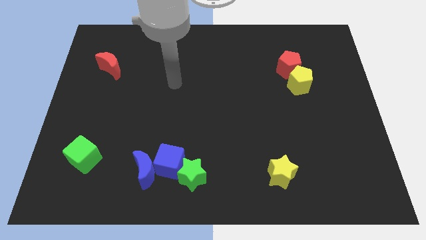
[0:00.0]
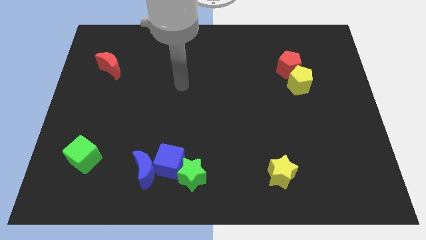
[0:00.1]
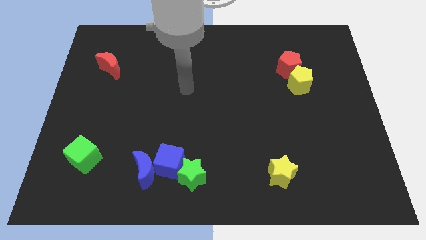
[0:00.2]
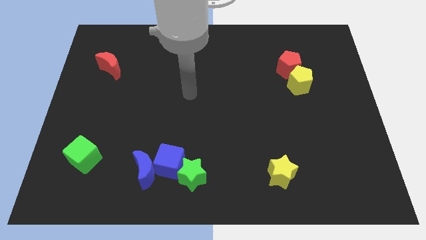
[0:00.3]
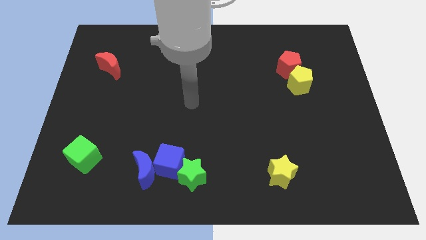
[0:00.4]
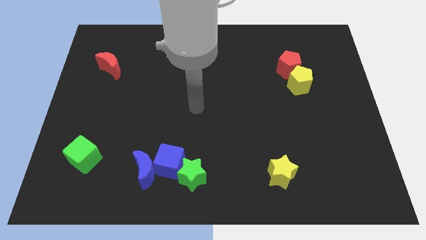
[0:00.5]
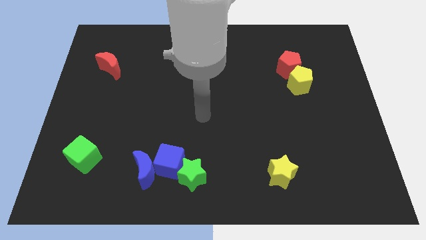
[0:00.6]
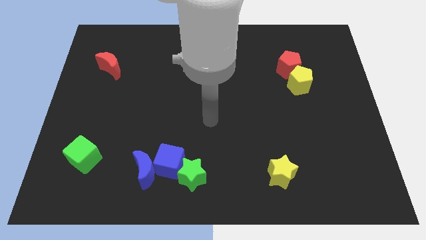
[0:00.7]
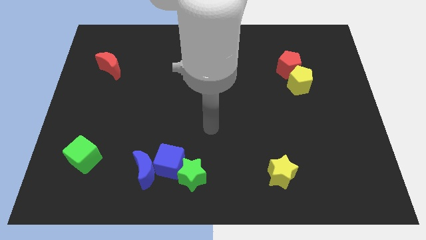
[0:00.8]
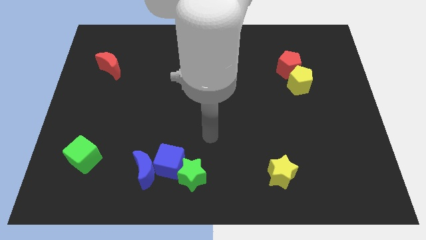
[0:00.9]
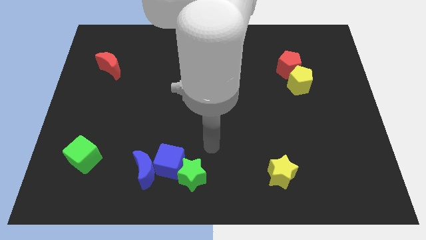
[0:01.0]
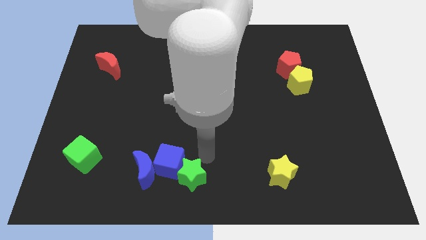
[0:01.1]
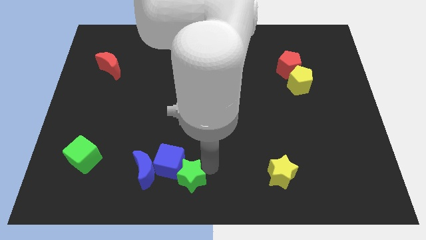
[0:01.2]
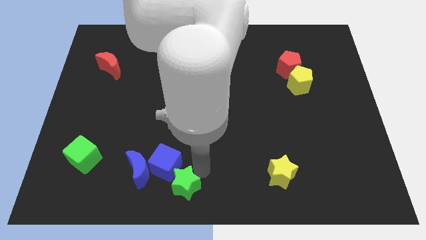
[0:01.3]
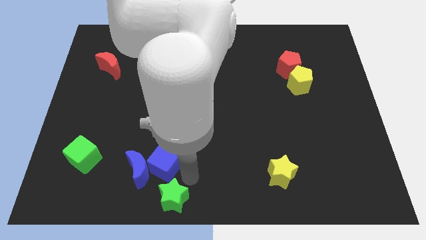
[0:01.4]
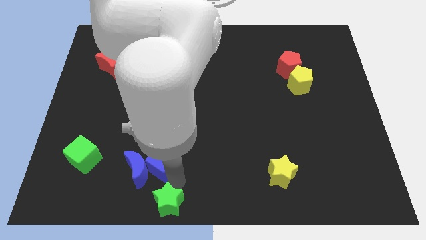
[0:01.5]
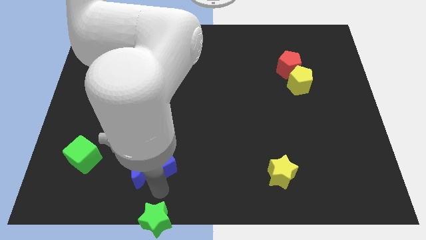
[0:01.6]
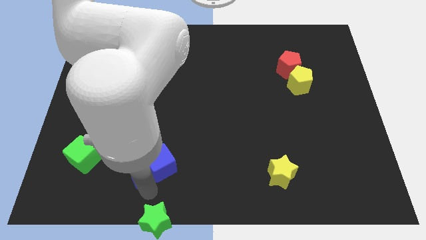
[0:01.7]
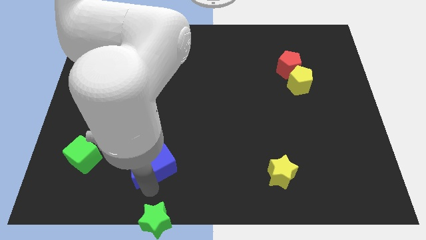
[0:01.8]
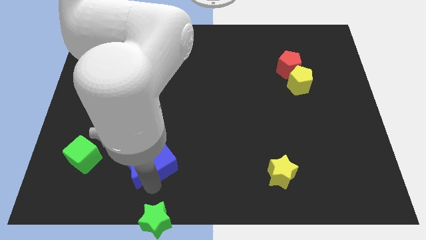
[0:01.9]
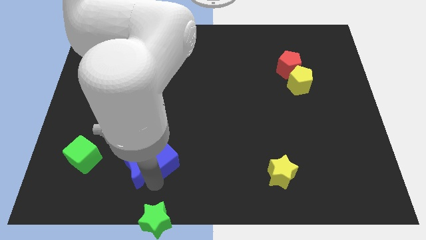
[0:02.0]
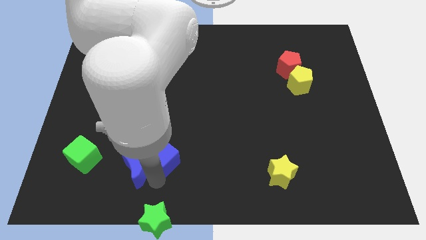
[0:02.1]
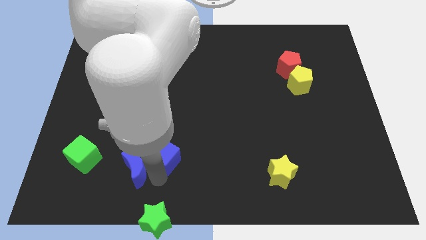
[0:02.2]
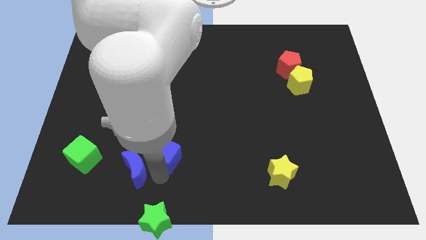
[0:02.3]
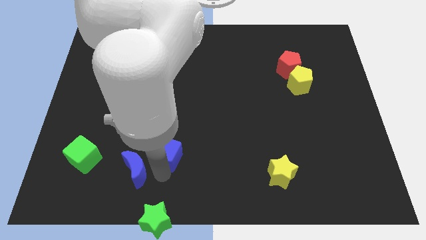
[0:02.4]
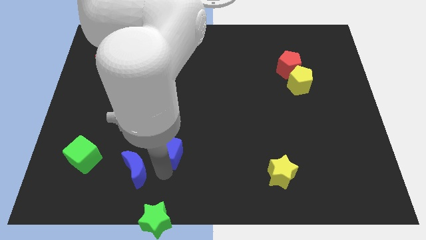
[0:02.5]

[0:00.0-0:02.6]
move the blue cube away from the blue moon and green star

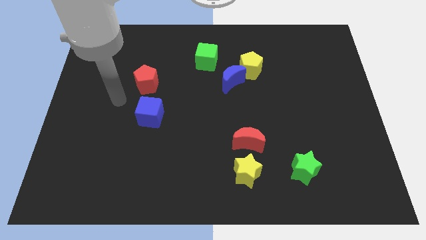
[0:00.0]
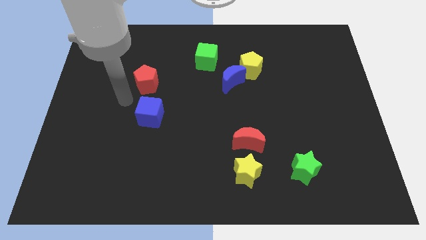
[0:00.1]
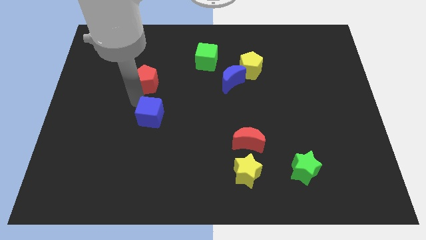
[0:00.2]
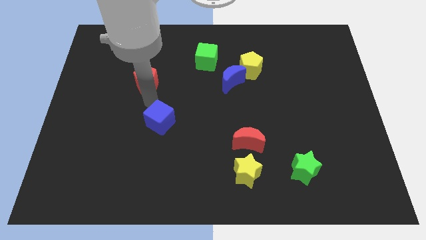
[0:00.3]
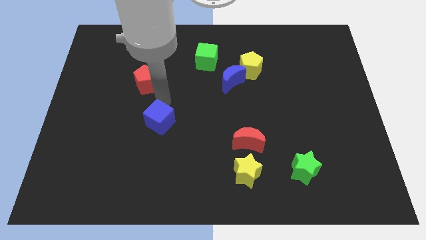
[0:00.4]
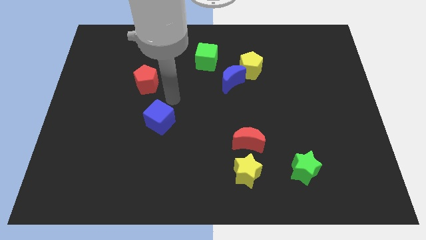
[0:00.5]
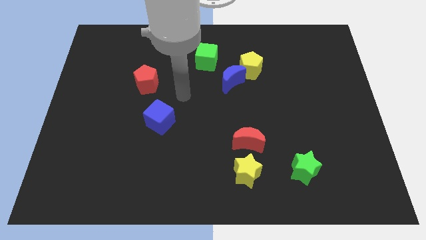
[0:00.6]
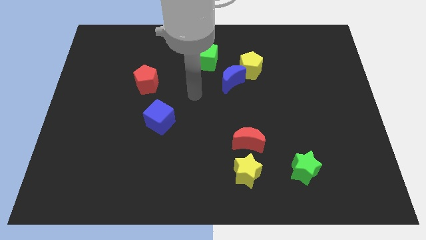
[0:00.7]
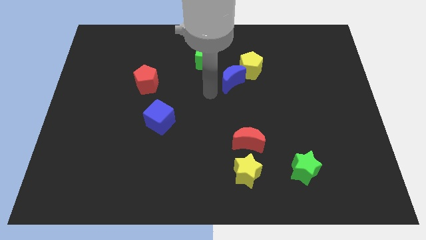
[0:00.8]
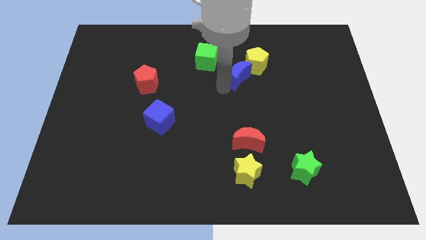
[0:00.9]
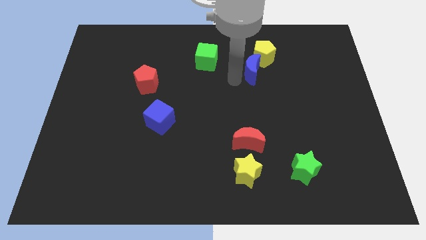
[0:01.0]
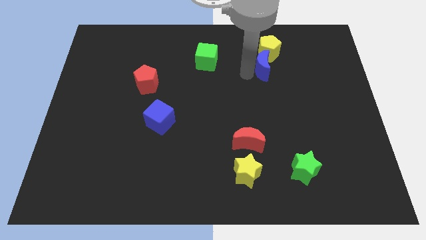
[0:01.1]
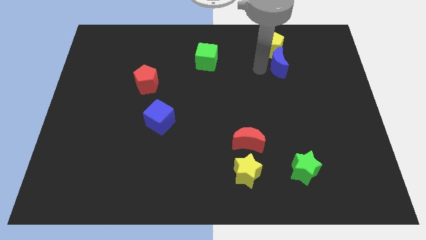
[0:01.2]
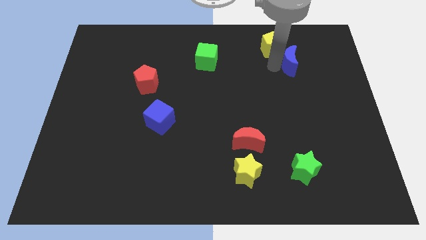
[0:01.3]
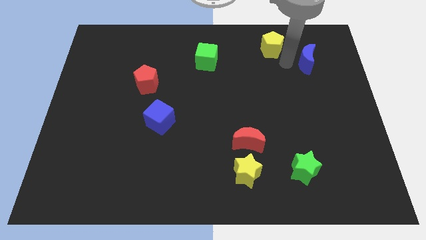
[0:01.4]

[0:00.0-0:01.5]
move the yellow pentagon away from the blue moon

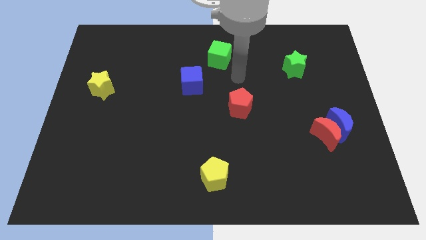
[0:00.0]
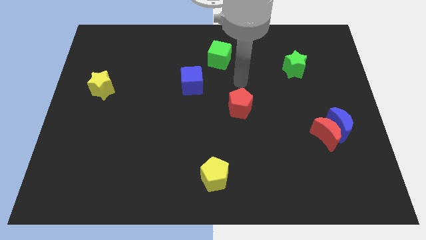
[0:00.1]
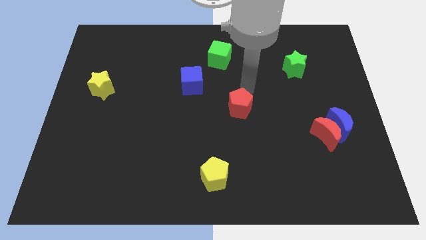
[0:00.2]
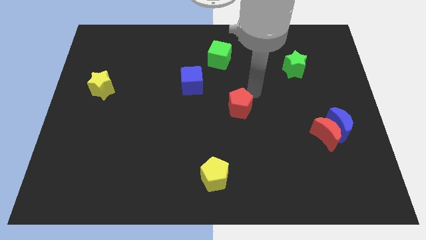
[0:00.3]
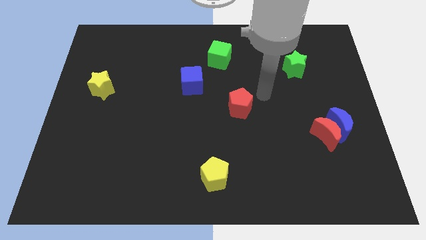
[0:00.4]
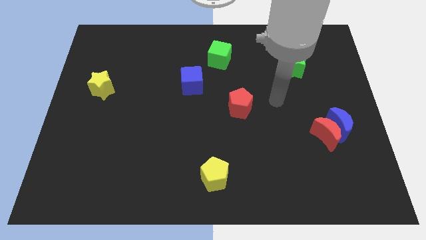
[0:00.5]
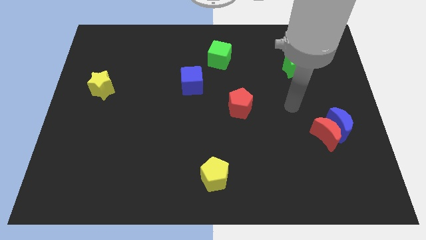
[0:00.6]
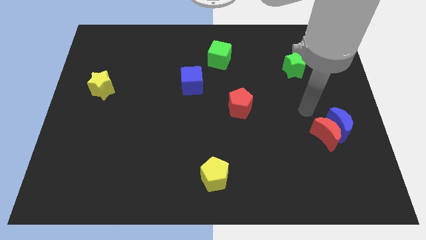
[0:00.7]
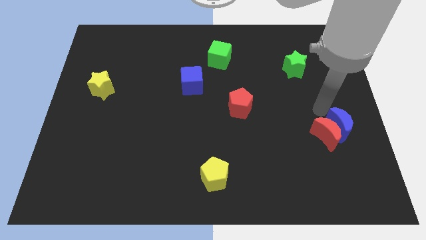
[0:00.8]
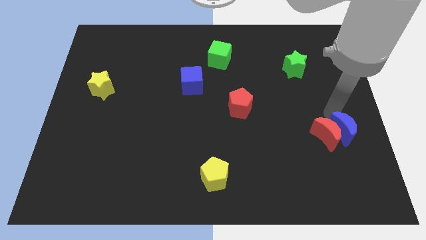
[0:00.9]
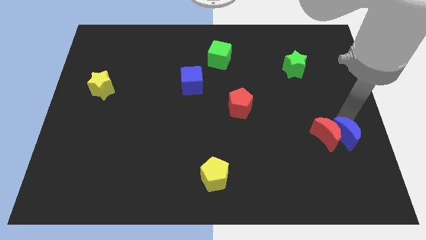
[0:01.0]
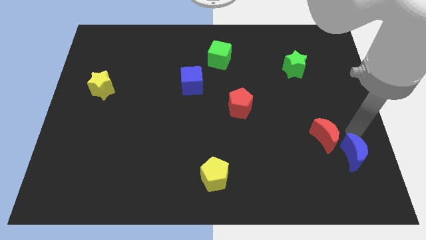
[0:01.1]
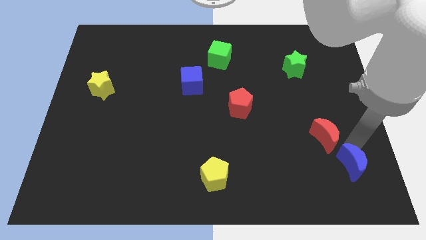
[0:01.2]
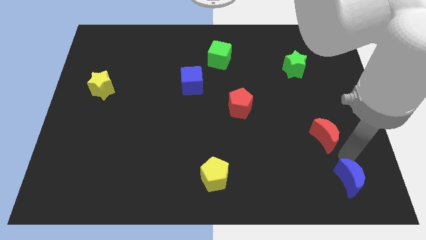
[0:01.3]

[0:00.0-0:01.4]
pull the red moon apart from the blue moon

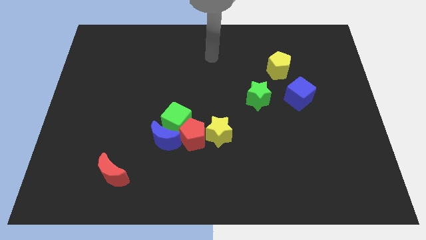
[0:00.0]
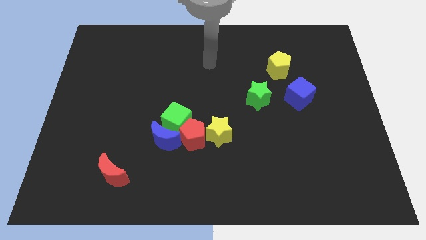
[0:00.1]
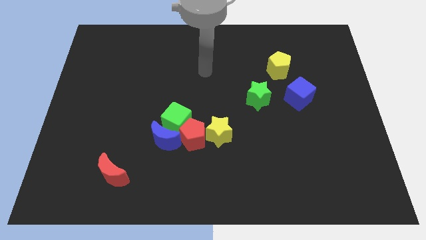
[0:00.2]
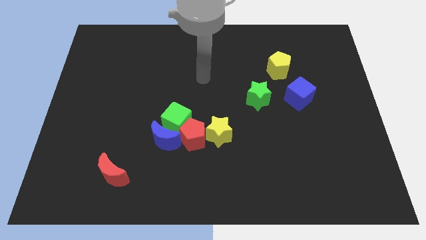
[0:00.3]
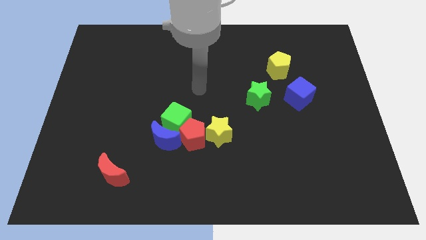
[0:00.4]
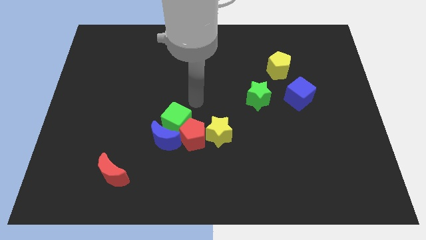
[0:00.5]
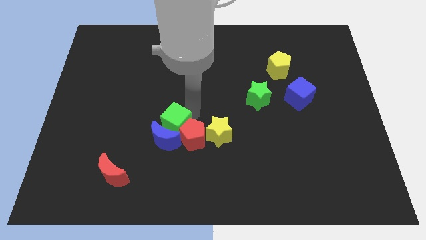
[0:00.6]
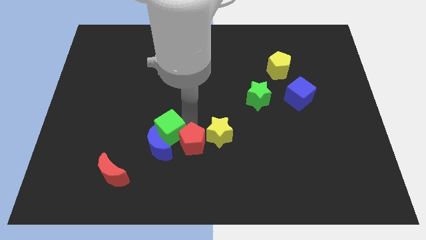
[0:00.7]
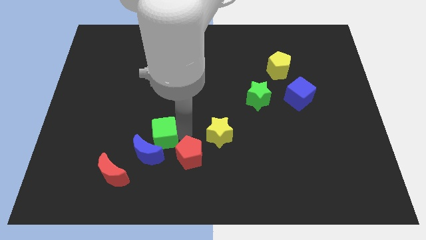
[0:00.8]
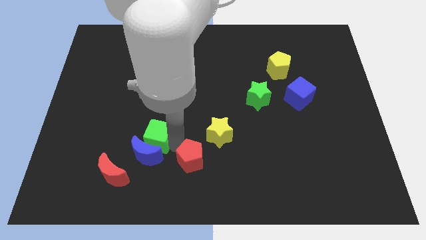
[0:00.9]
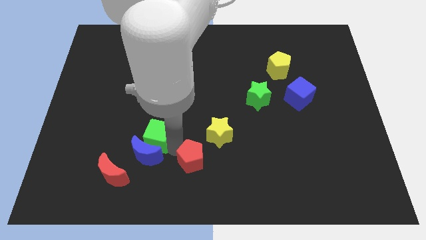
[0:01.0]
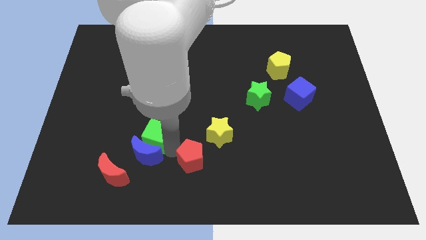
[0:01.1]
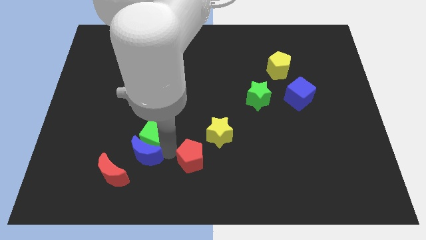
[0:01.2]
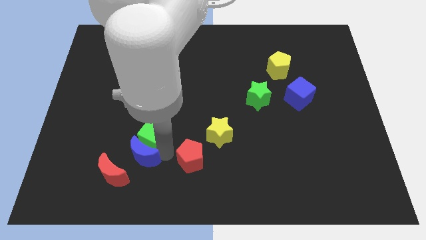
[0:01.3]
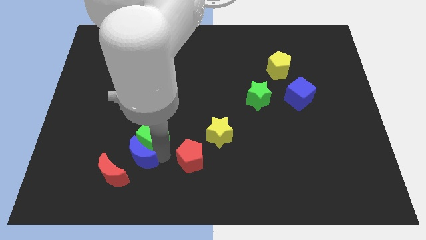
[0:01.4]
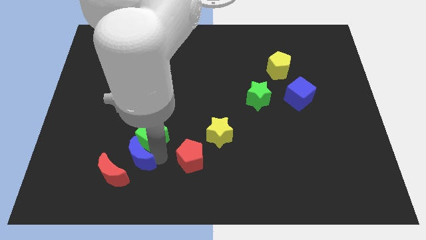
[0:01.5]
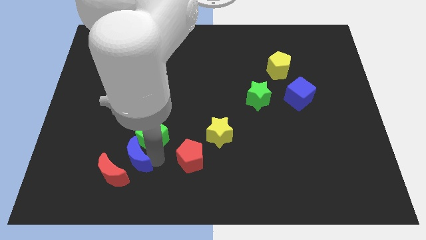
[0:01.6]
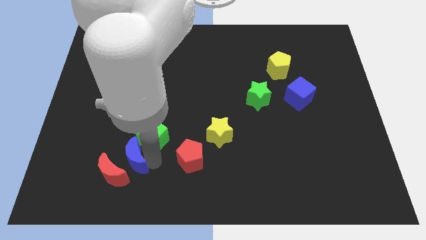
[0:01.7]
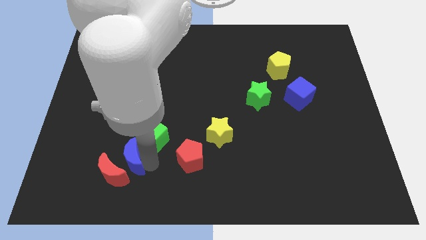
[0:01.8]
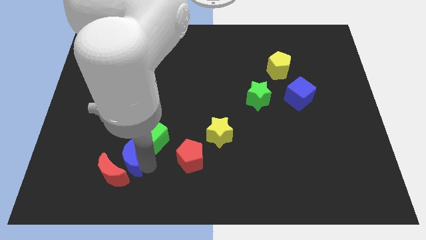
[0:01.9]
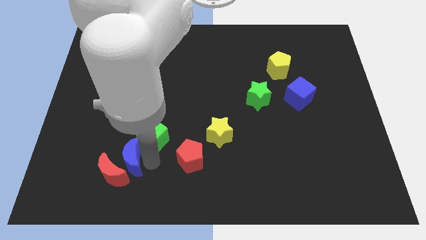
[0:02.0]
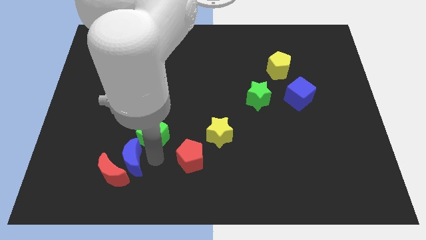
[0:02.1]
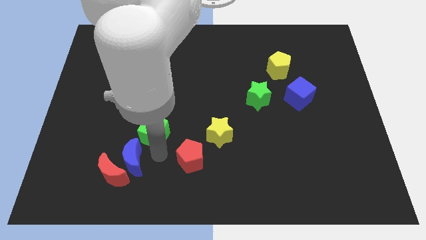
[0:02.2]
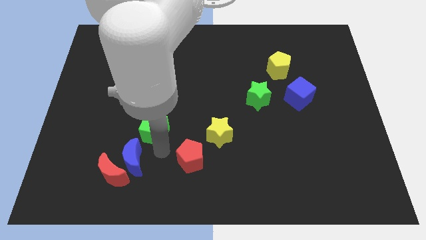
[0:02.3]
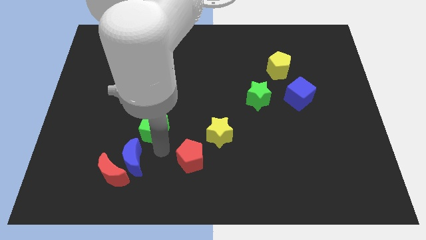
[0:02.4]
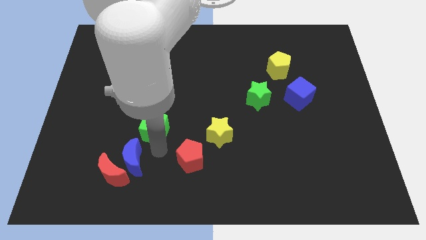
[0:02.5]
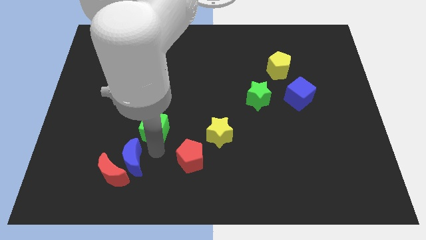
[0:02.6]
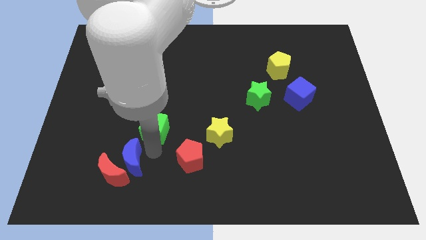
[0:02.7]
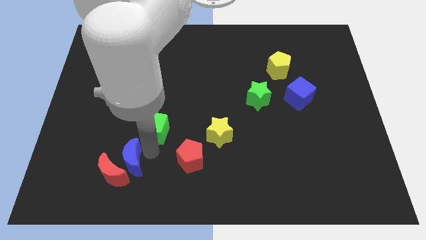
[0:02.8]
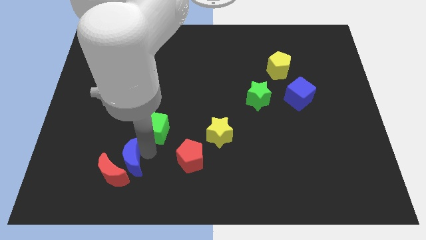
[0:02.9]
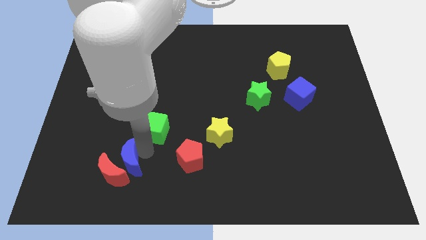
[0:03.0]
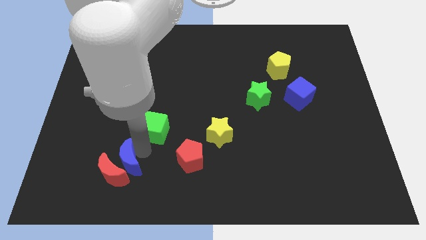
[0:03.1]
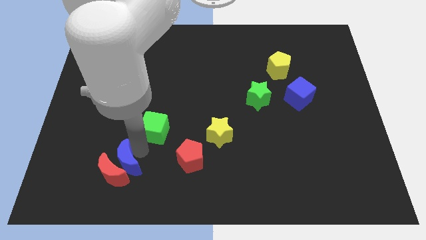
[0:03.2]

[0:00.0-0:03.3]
move the blue moon away from the green cube and red pentagon

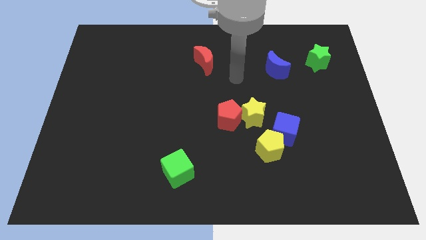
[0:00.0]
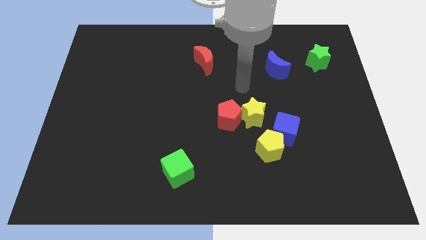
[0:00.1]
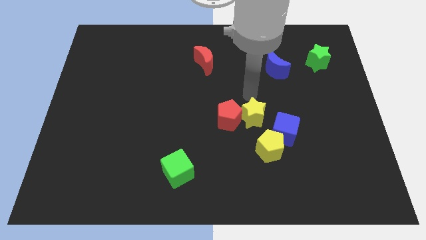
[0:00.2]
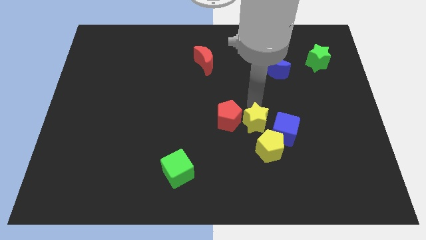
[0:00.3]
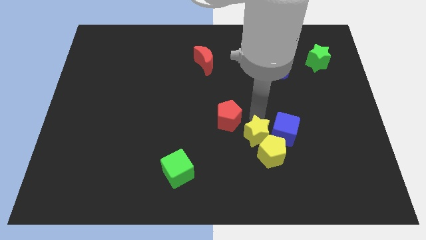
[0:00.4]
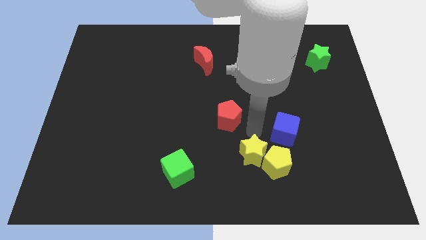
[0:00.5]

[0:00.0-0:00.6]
pull the red pentagon apart from the yellow star
